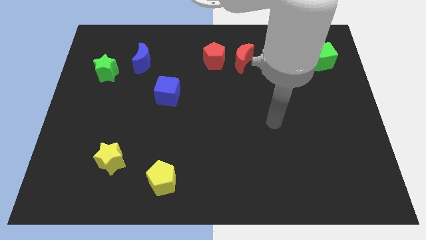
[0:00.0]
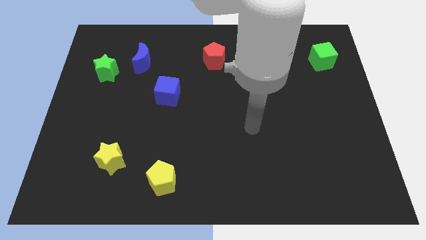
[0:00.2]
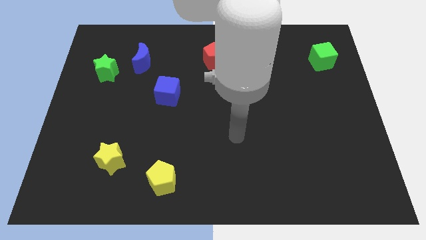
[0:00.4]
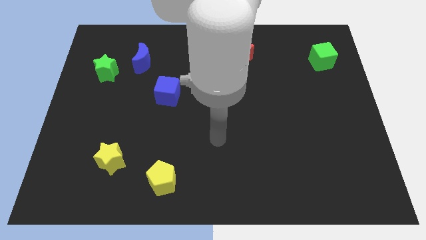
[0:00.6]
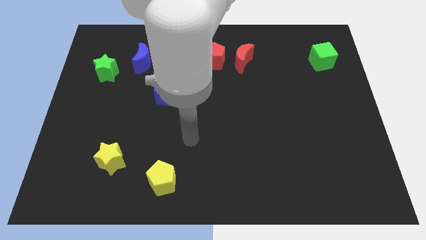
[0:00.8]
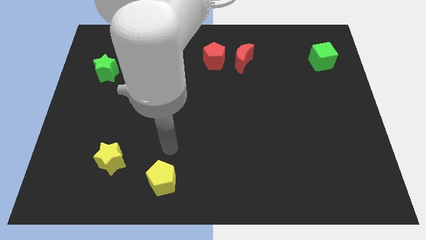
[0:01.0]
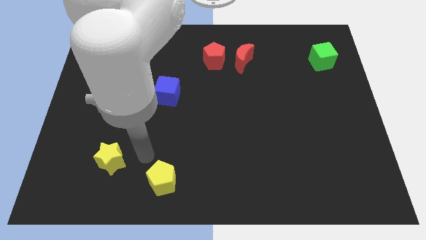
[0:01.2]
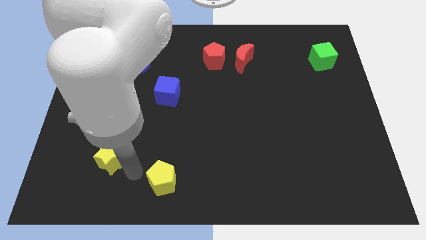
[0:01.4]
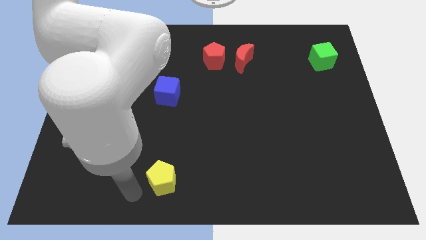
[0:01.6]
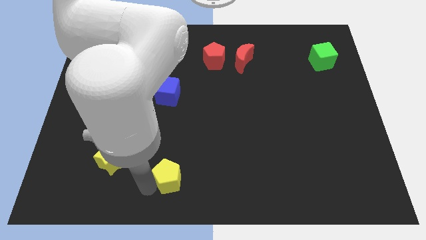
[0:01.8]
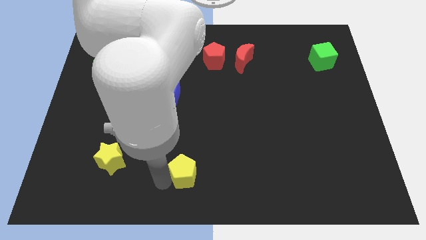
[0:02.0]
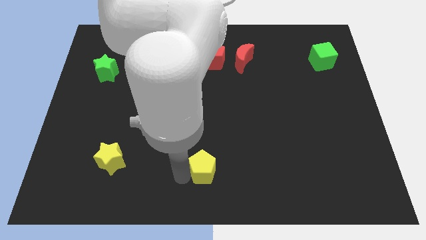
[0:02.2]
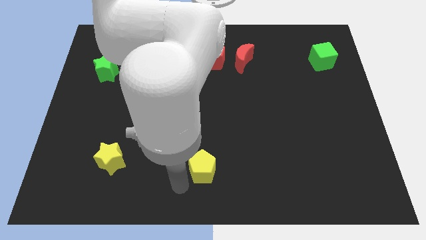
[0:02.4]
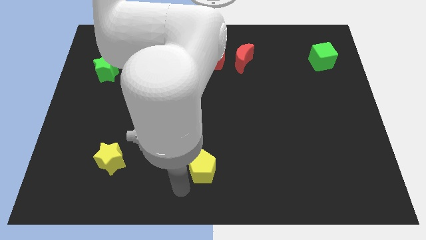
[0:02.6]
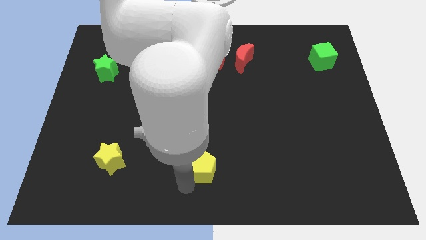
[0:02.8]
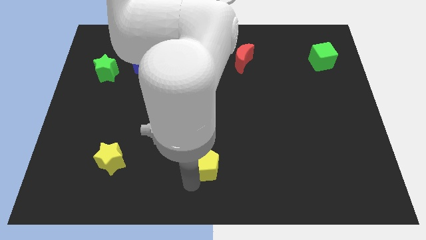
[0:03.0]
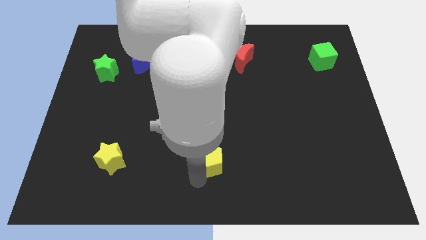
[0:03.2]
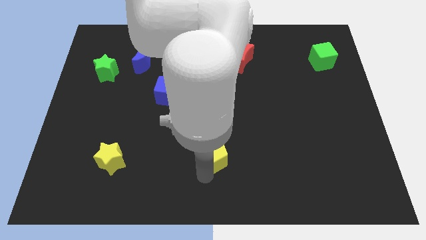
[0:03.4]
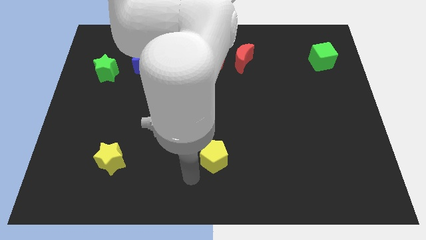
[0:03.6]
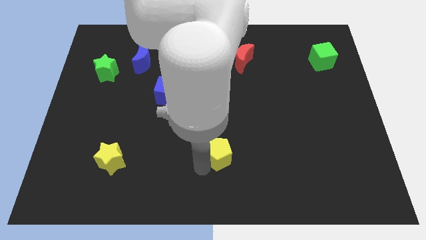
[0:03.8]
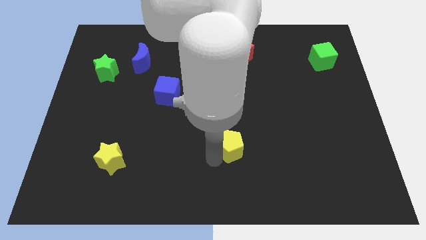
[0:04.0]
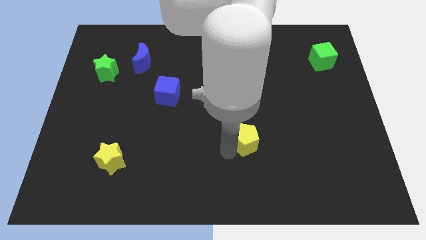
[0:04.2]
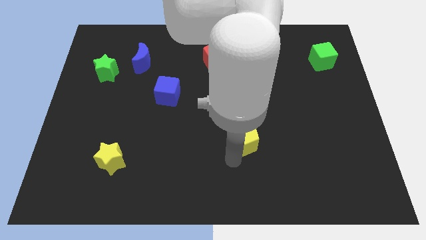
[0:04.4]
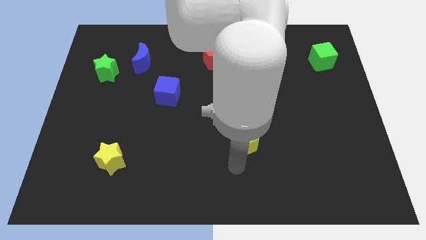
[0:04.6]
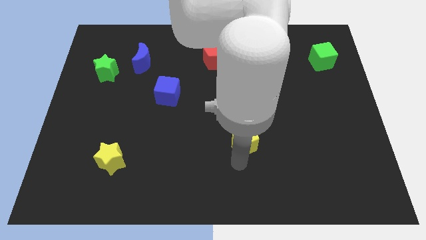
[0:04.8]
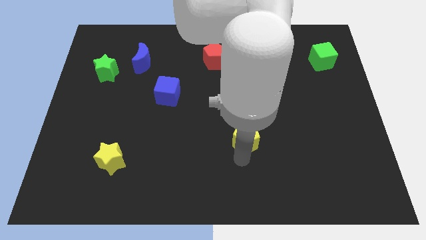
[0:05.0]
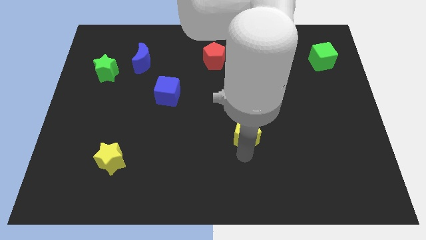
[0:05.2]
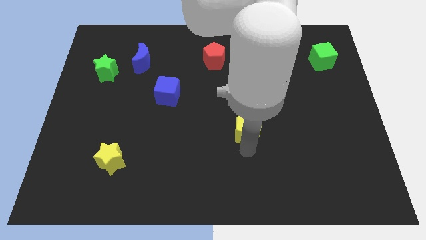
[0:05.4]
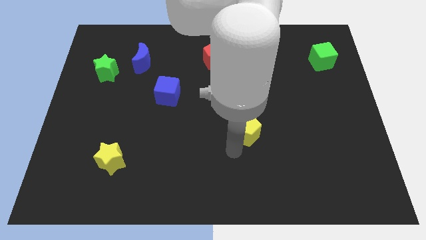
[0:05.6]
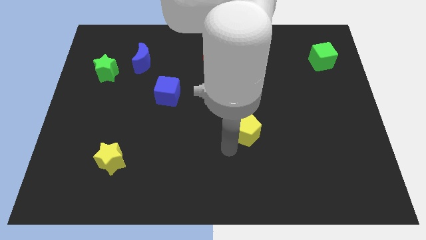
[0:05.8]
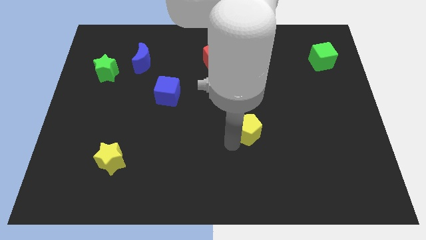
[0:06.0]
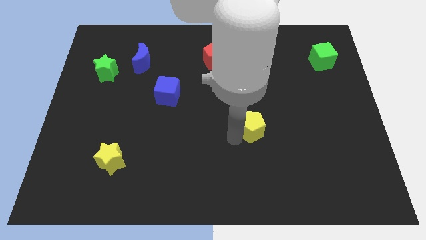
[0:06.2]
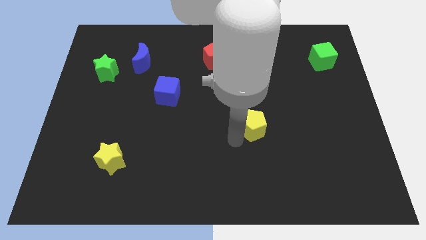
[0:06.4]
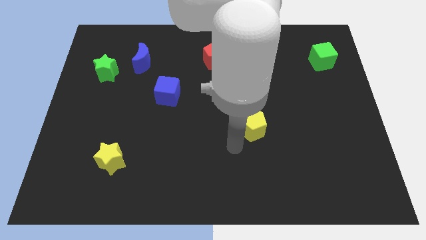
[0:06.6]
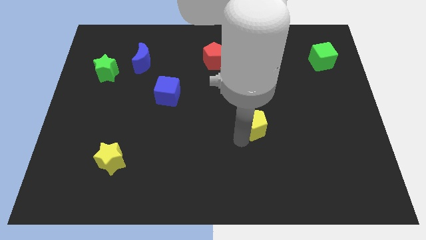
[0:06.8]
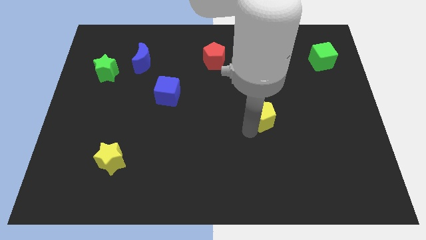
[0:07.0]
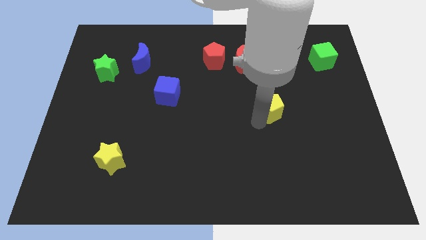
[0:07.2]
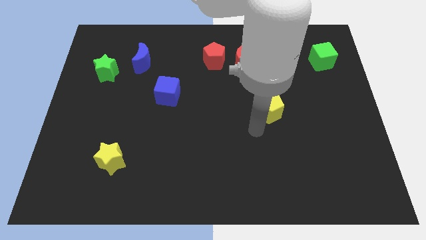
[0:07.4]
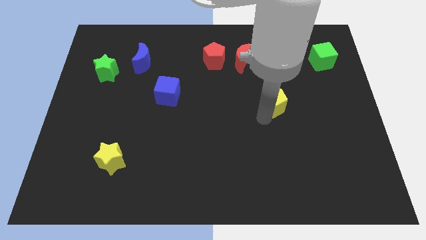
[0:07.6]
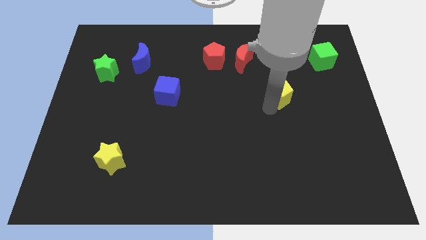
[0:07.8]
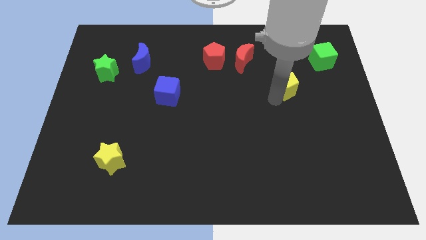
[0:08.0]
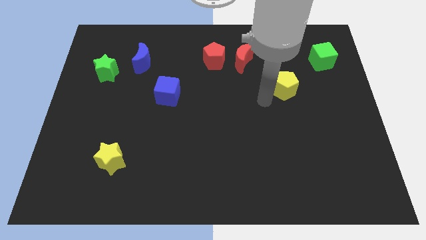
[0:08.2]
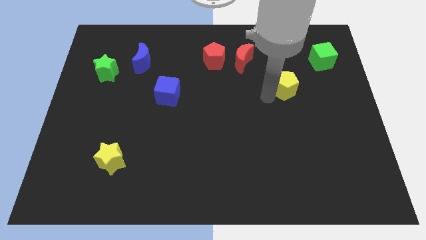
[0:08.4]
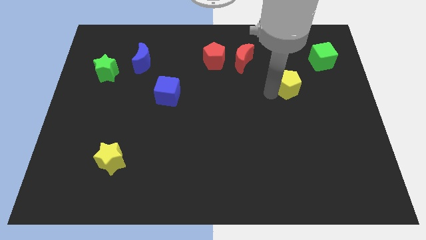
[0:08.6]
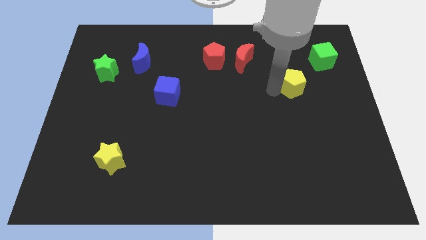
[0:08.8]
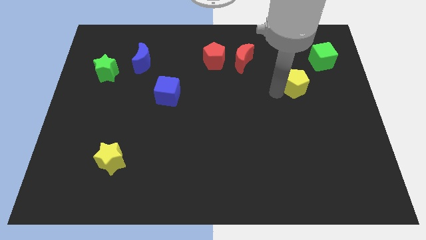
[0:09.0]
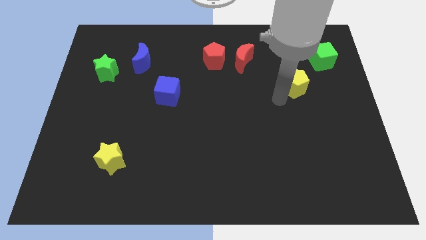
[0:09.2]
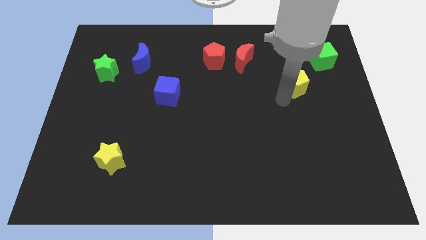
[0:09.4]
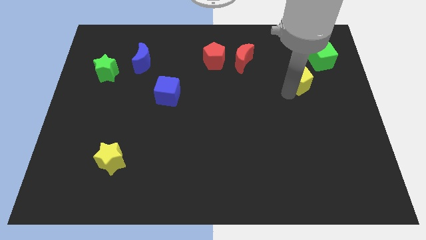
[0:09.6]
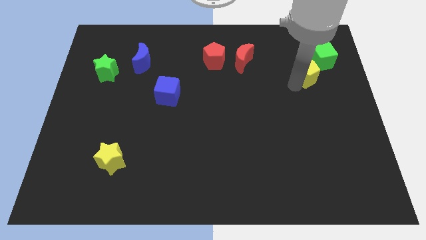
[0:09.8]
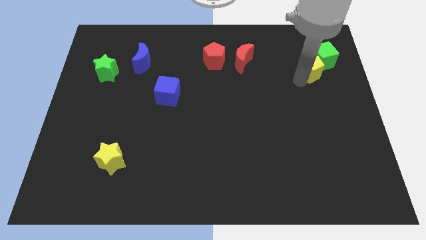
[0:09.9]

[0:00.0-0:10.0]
push the yellow pentagon close to the green cube

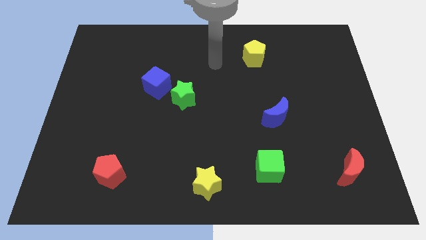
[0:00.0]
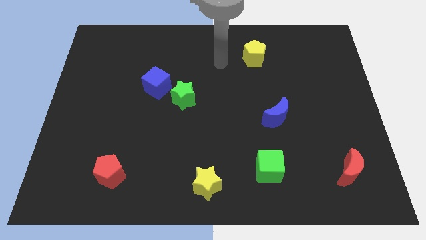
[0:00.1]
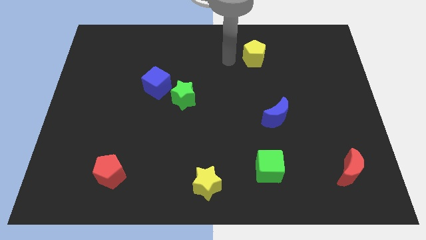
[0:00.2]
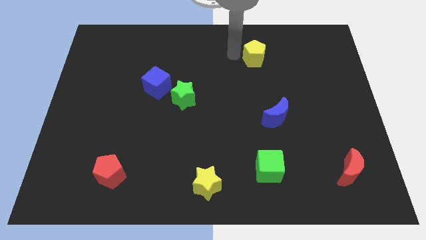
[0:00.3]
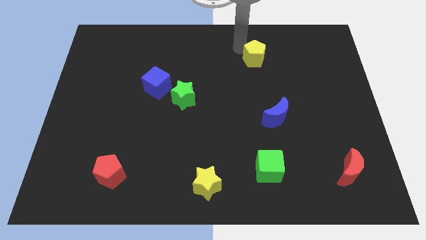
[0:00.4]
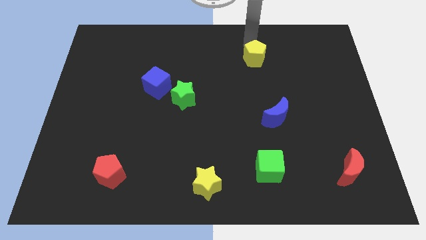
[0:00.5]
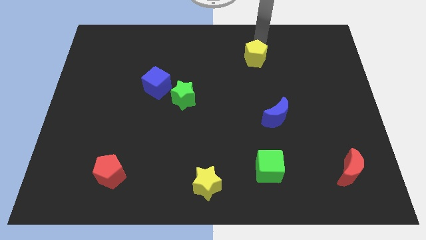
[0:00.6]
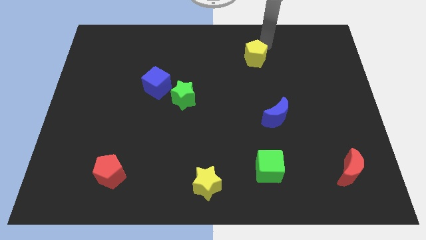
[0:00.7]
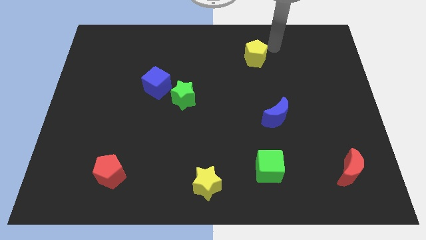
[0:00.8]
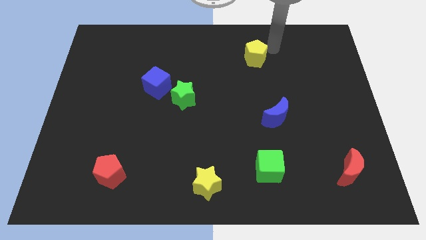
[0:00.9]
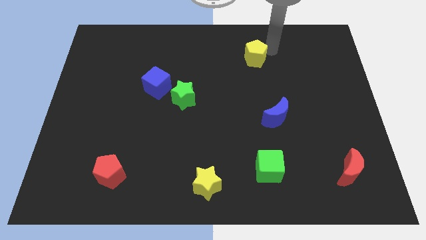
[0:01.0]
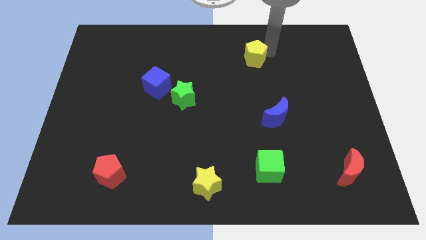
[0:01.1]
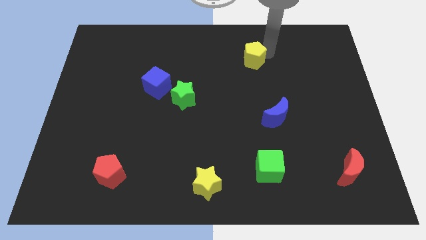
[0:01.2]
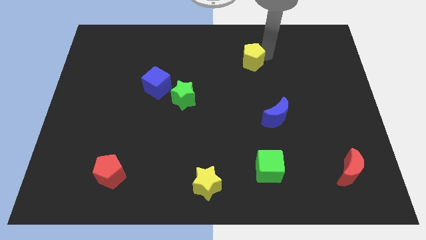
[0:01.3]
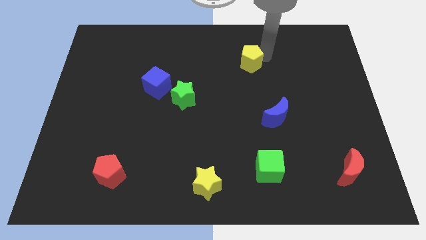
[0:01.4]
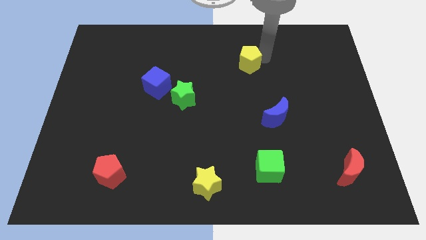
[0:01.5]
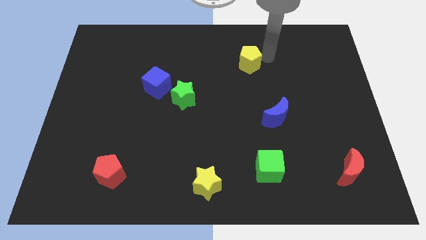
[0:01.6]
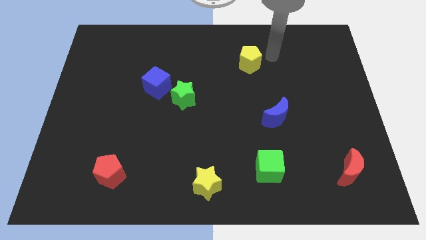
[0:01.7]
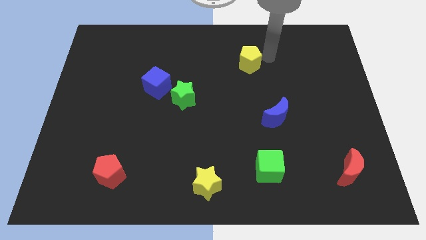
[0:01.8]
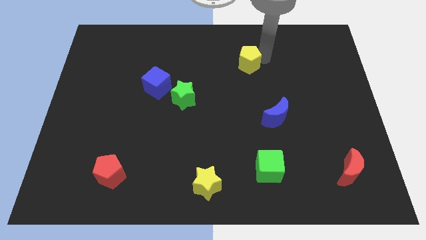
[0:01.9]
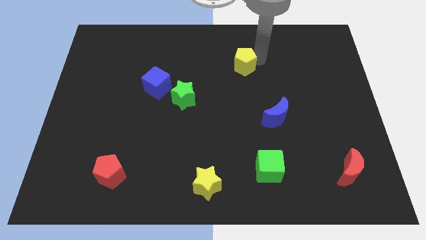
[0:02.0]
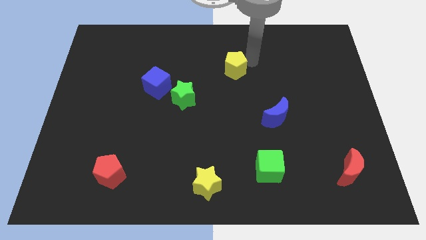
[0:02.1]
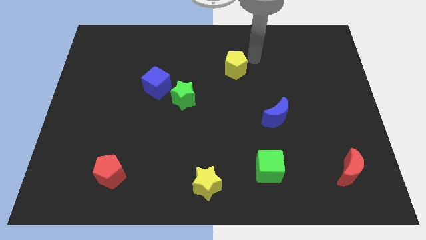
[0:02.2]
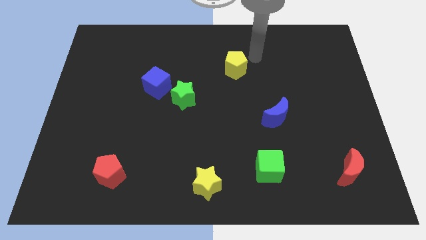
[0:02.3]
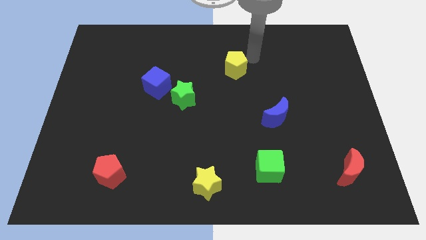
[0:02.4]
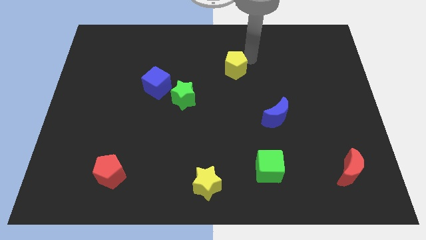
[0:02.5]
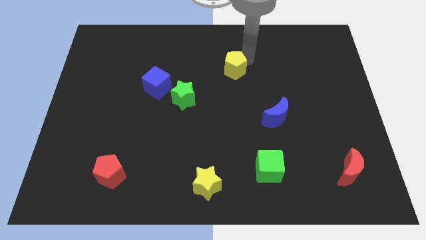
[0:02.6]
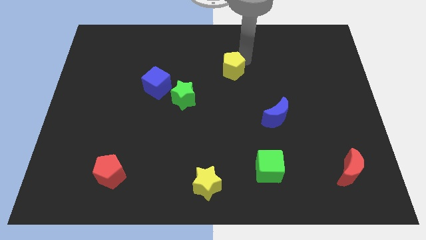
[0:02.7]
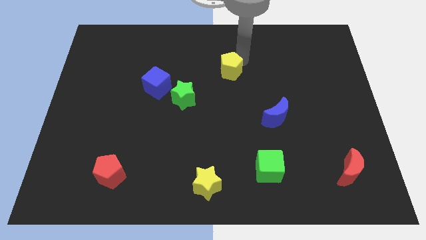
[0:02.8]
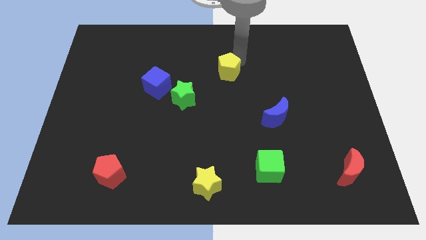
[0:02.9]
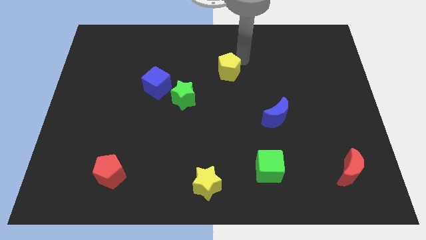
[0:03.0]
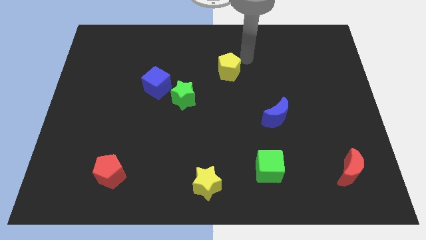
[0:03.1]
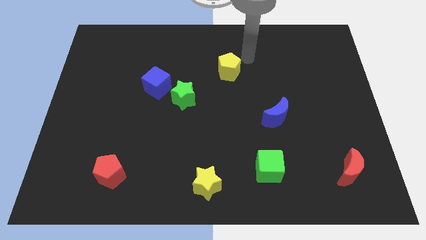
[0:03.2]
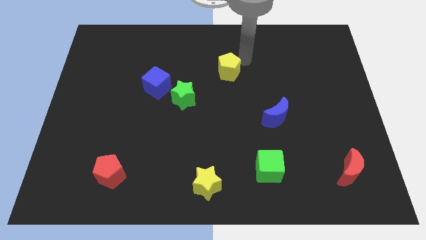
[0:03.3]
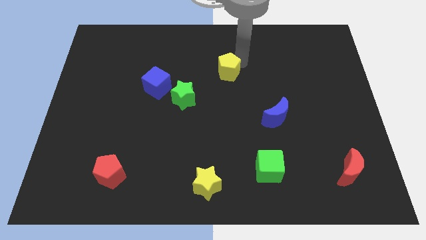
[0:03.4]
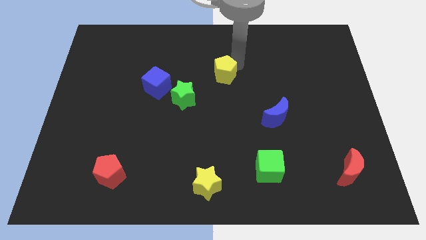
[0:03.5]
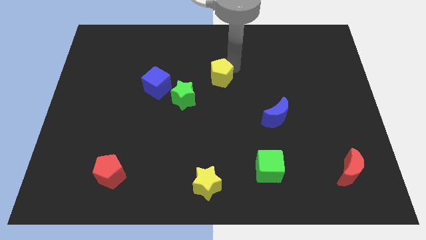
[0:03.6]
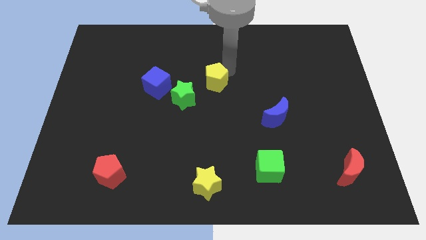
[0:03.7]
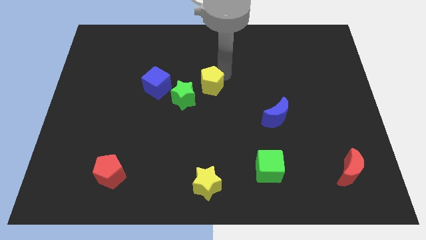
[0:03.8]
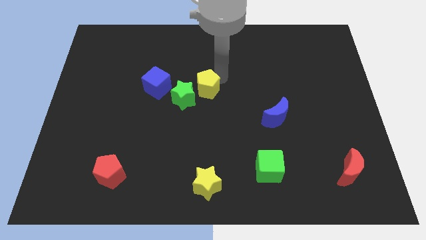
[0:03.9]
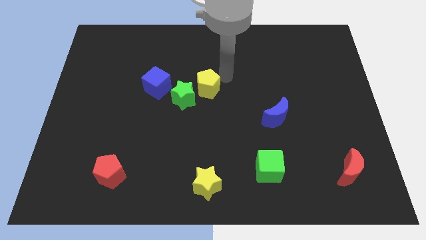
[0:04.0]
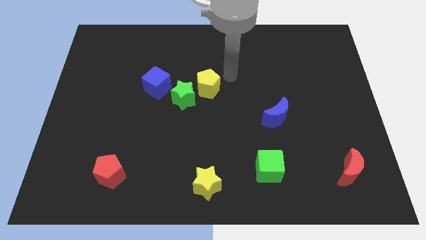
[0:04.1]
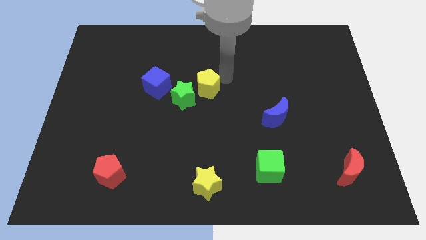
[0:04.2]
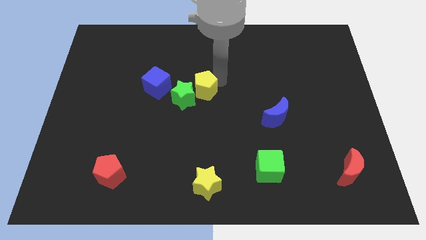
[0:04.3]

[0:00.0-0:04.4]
push the yellow pentagon to the green star
